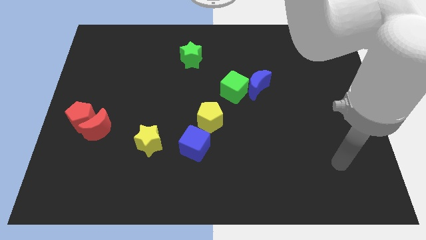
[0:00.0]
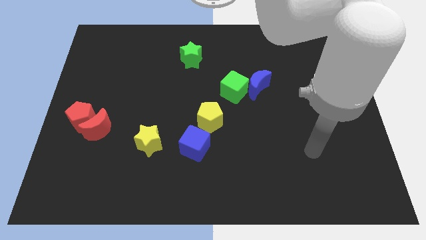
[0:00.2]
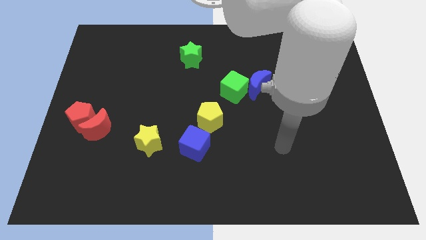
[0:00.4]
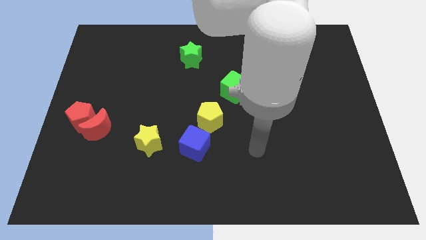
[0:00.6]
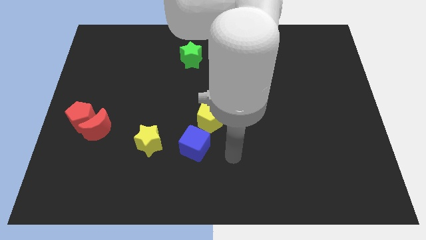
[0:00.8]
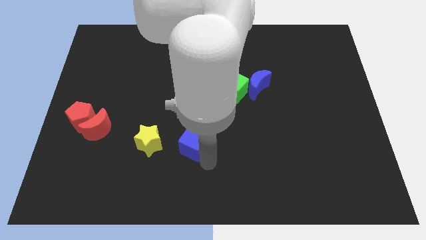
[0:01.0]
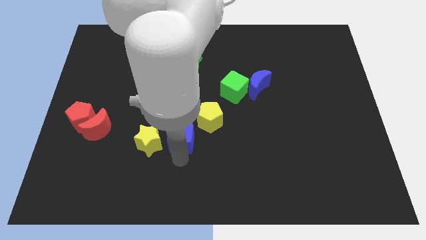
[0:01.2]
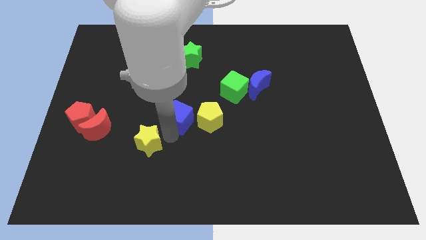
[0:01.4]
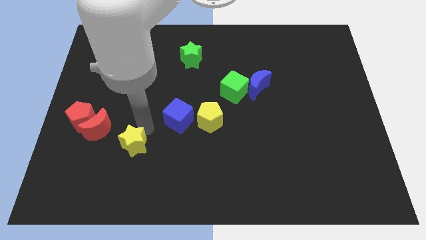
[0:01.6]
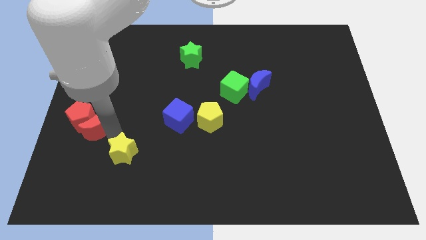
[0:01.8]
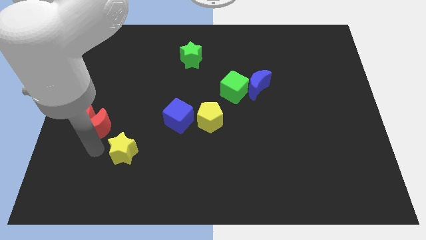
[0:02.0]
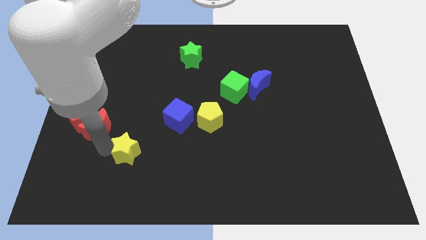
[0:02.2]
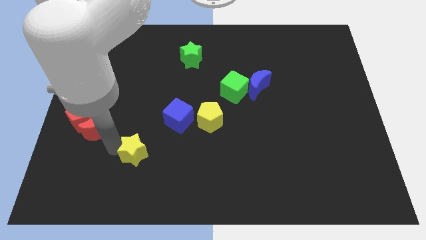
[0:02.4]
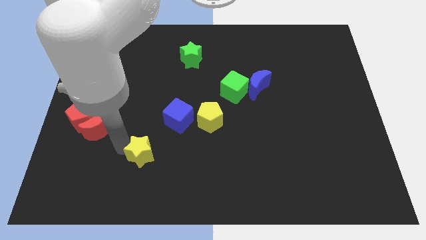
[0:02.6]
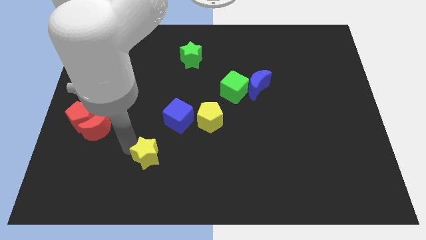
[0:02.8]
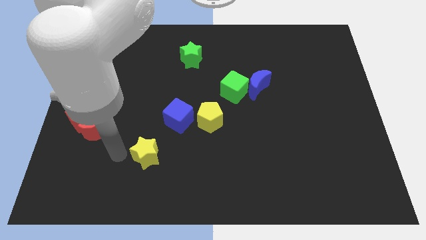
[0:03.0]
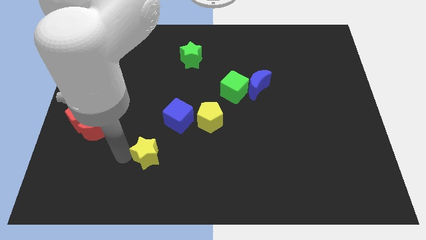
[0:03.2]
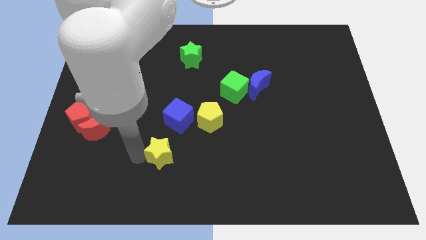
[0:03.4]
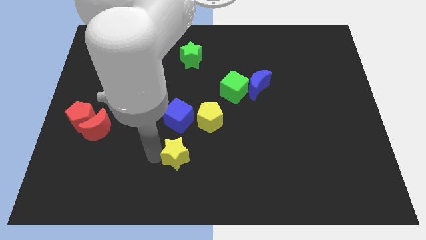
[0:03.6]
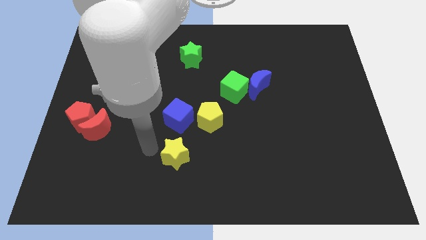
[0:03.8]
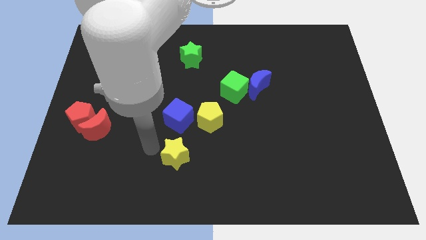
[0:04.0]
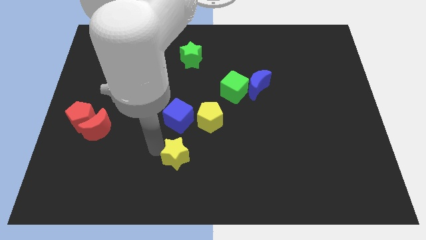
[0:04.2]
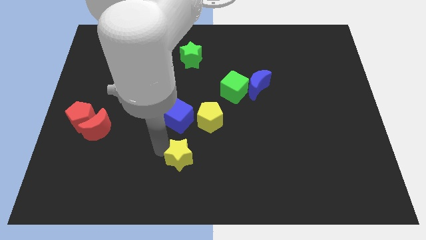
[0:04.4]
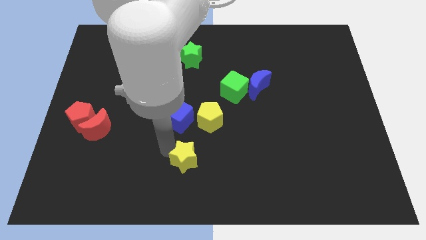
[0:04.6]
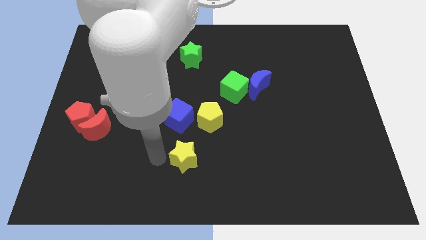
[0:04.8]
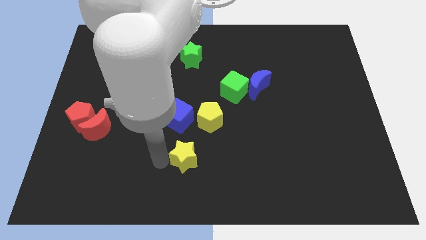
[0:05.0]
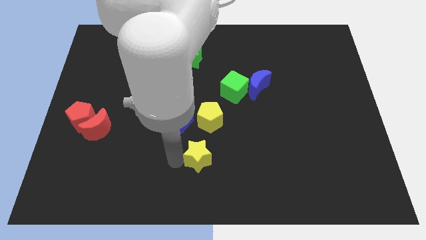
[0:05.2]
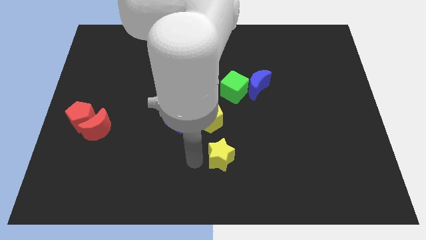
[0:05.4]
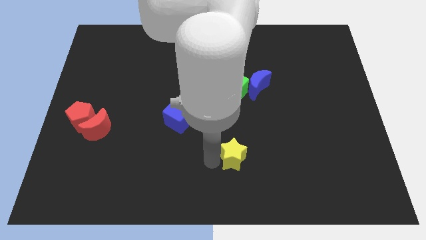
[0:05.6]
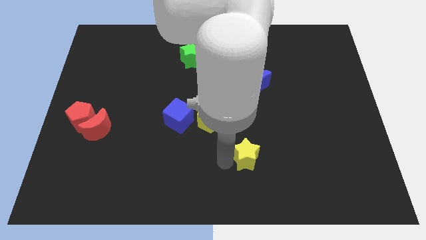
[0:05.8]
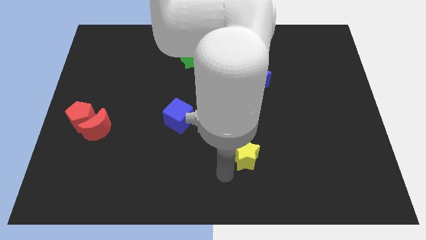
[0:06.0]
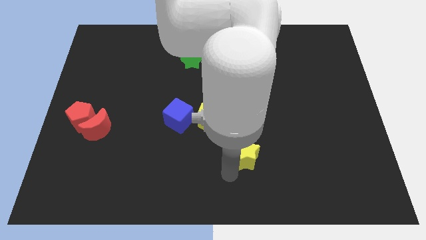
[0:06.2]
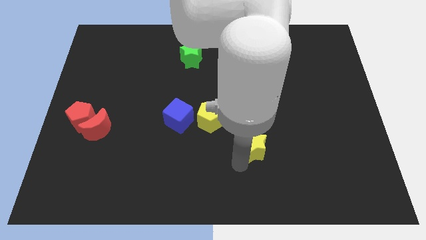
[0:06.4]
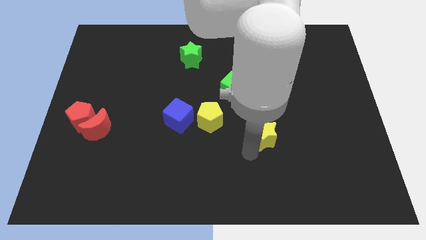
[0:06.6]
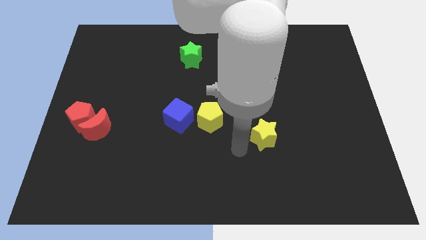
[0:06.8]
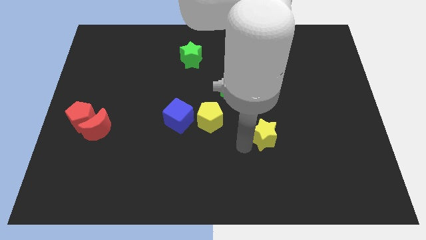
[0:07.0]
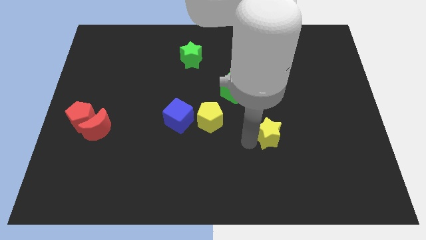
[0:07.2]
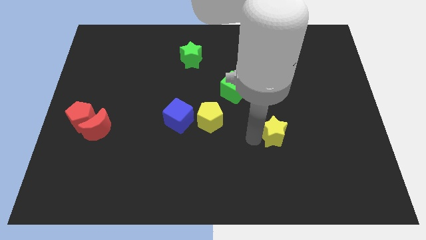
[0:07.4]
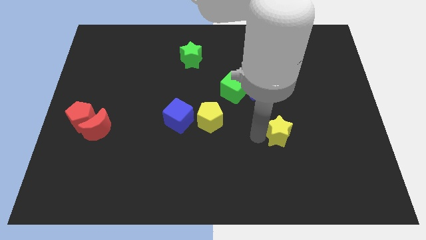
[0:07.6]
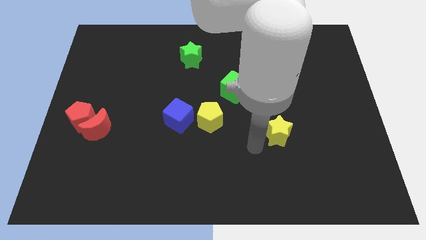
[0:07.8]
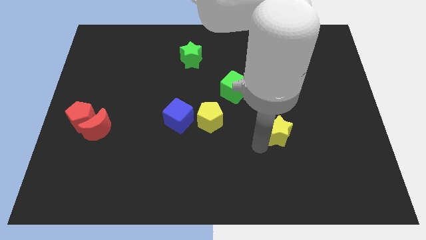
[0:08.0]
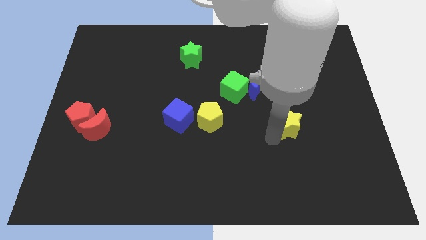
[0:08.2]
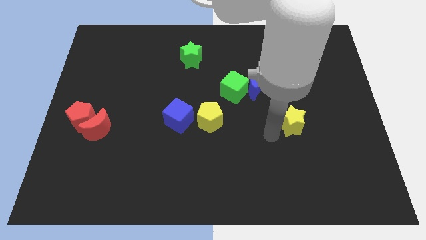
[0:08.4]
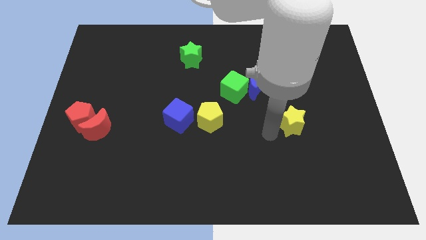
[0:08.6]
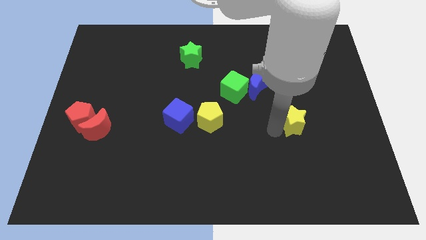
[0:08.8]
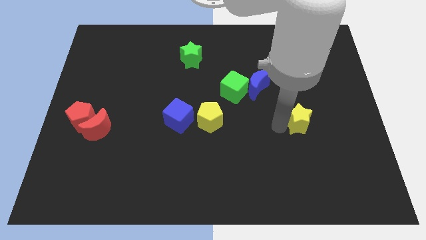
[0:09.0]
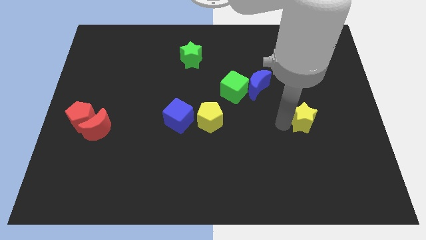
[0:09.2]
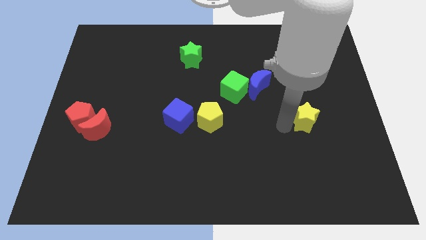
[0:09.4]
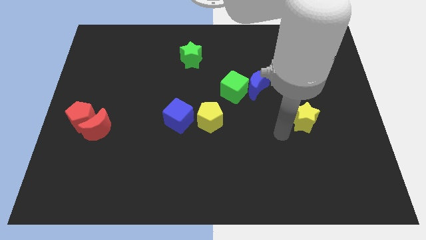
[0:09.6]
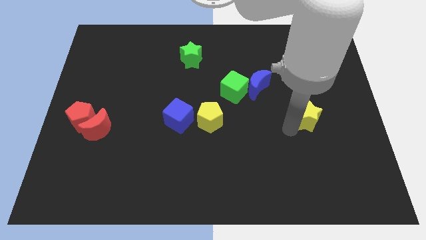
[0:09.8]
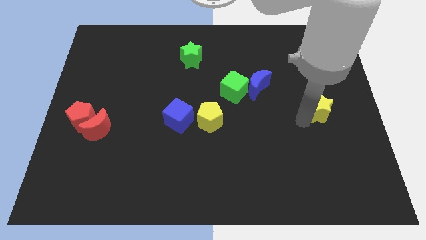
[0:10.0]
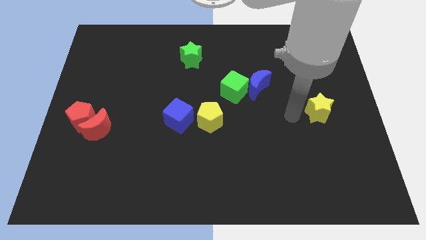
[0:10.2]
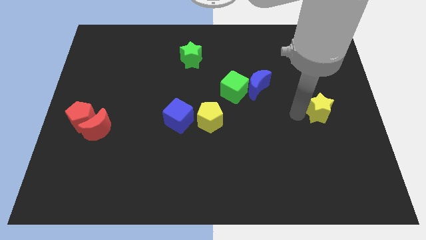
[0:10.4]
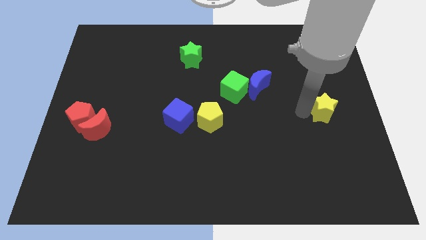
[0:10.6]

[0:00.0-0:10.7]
put the yellow star to the right side

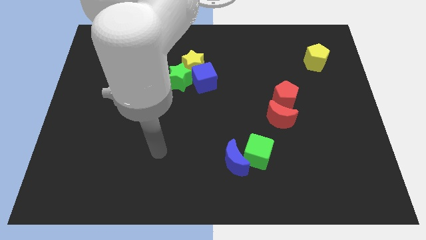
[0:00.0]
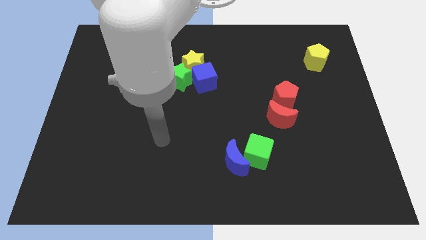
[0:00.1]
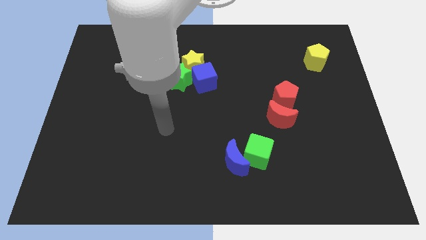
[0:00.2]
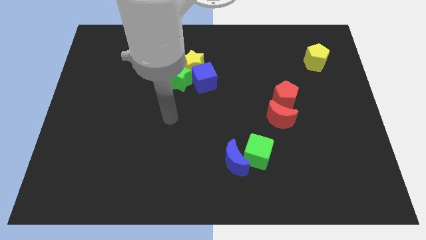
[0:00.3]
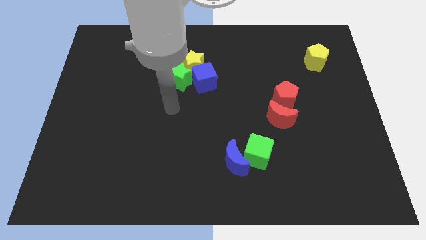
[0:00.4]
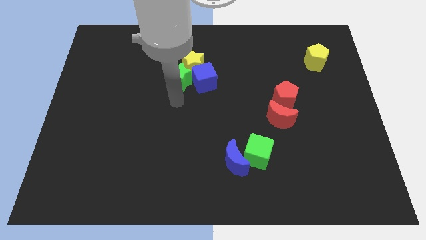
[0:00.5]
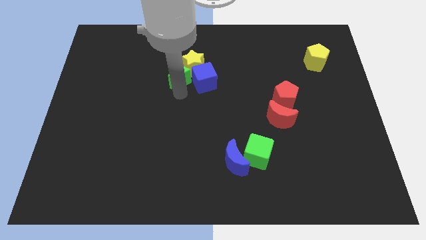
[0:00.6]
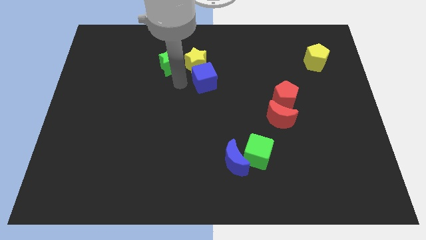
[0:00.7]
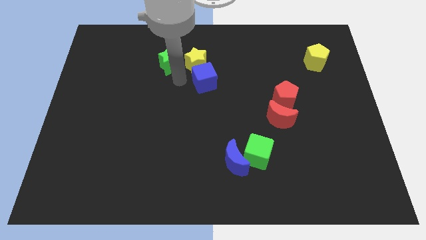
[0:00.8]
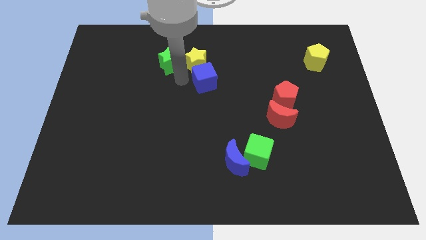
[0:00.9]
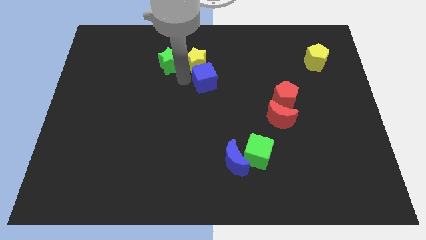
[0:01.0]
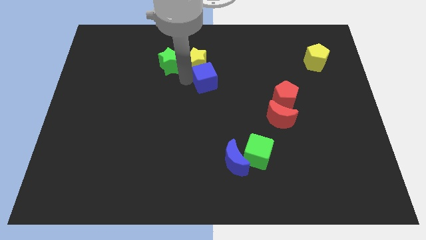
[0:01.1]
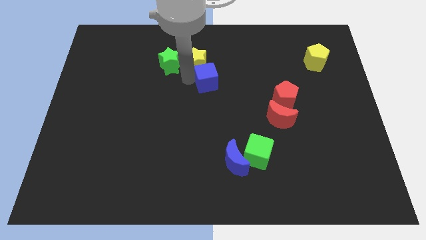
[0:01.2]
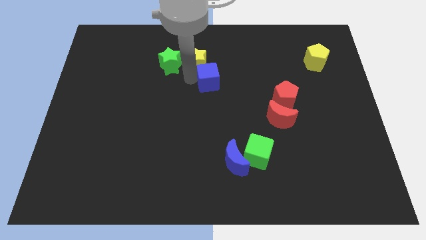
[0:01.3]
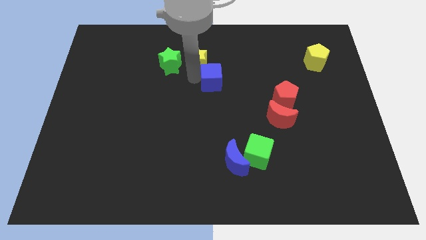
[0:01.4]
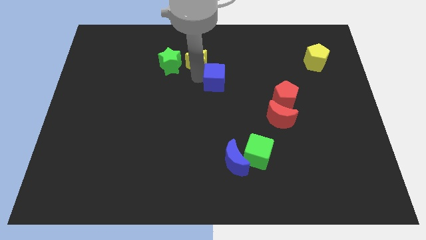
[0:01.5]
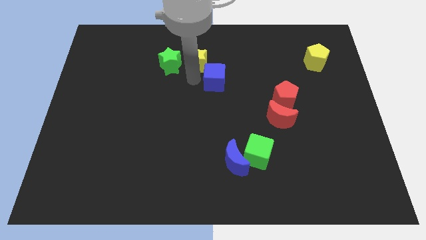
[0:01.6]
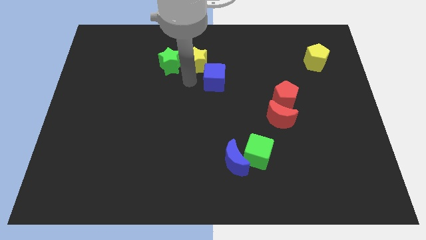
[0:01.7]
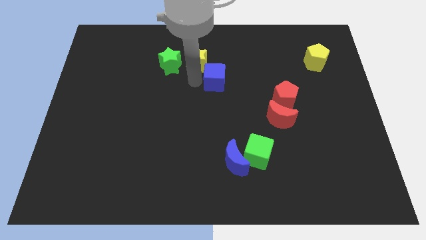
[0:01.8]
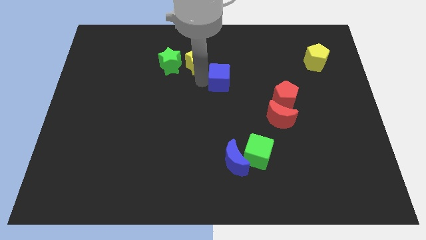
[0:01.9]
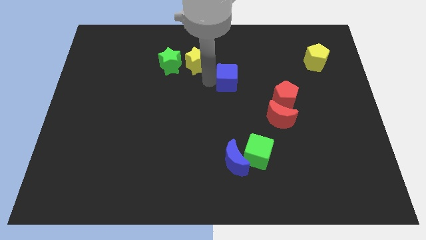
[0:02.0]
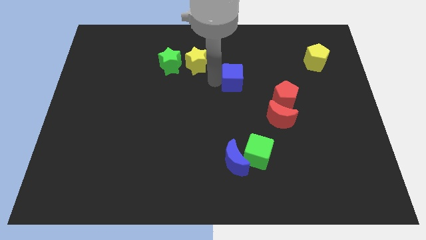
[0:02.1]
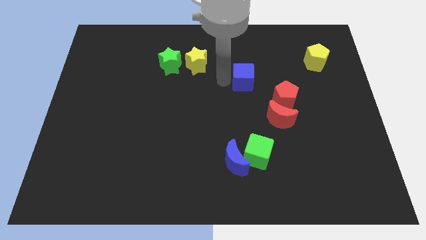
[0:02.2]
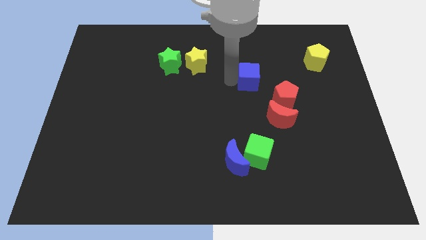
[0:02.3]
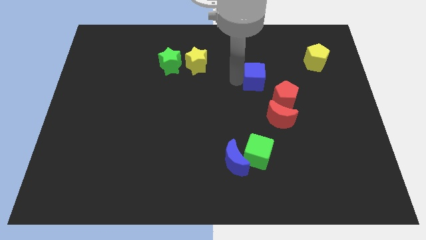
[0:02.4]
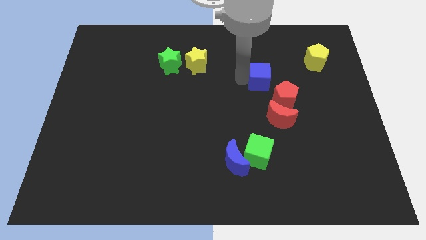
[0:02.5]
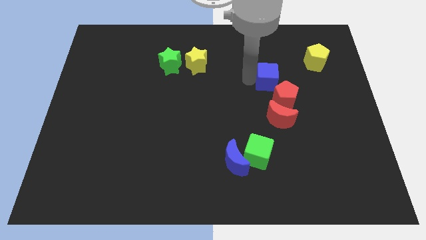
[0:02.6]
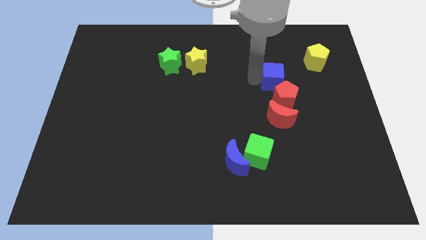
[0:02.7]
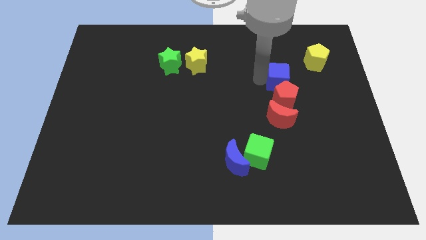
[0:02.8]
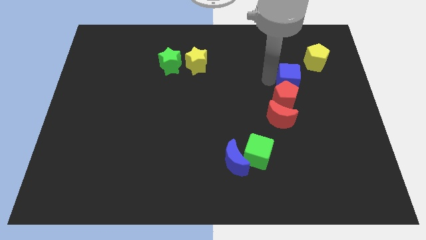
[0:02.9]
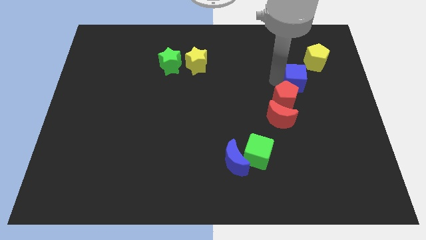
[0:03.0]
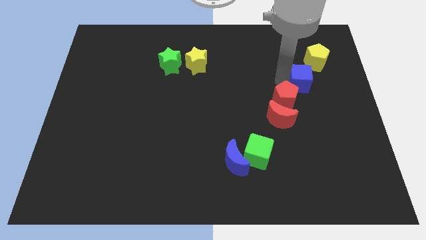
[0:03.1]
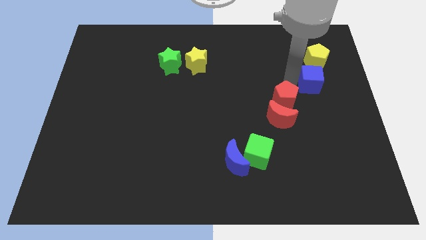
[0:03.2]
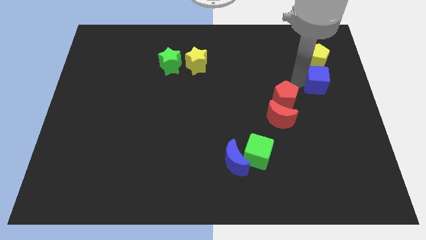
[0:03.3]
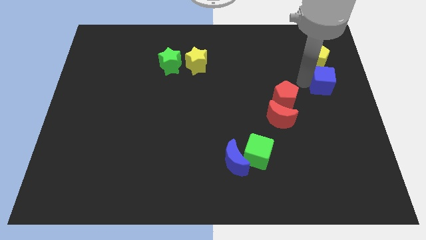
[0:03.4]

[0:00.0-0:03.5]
move the blue cube to the center right
